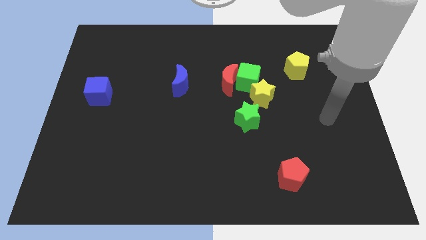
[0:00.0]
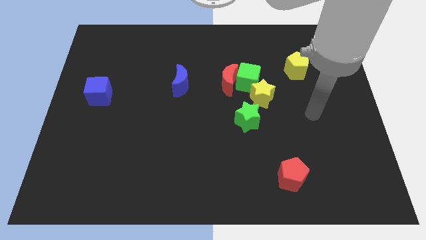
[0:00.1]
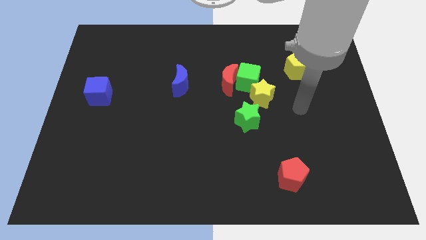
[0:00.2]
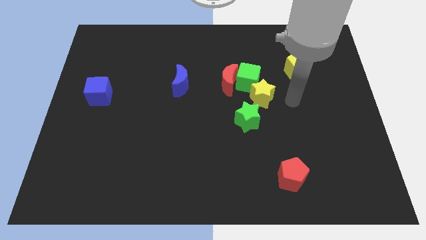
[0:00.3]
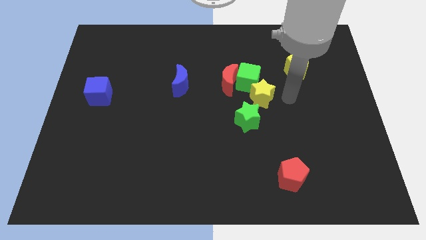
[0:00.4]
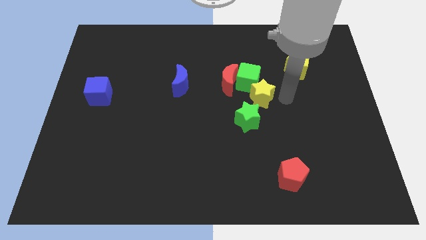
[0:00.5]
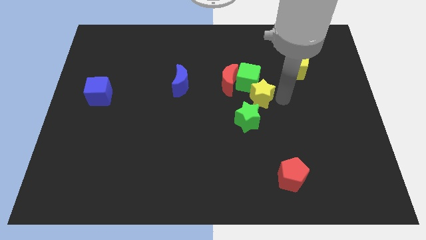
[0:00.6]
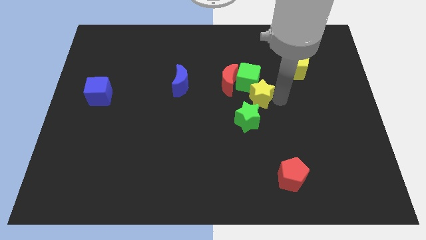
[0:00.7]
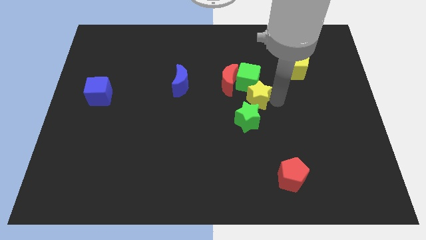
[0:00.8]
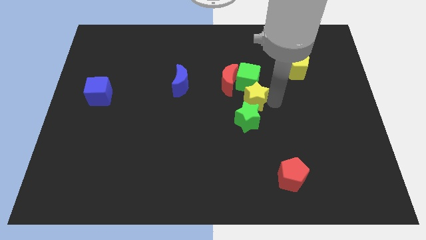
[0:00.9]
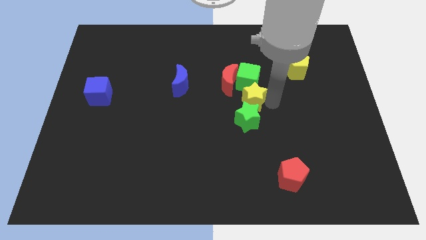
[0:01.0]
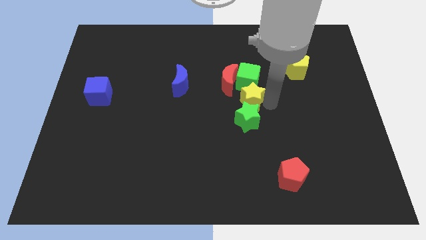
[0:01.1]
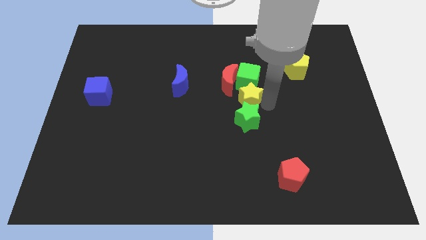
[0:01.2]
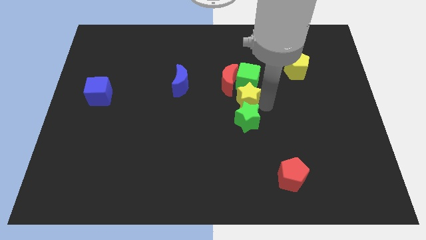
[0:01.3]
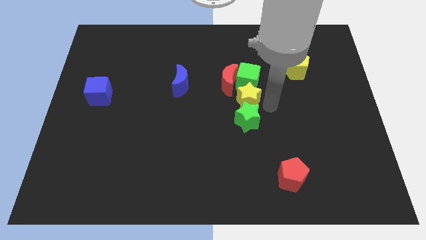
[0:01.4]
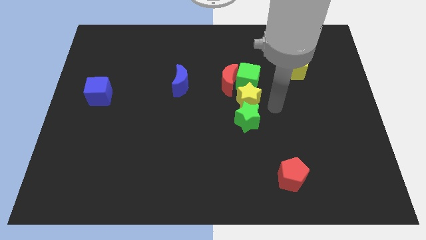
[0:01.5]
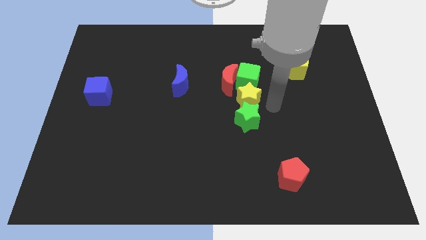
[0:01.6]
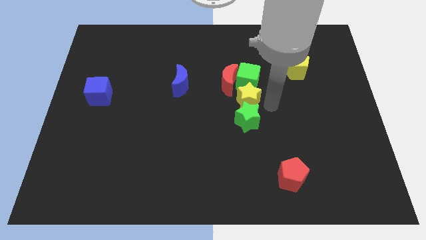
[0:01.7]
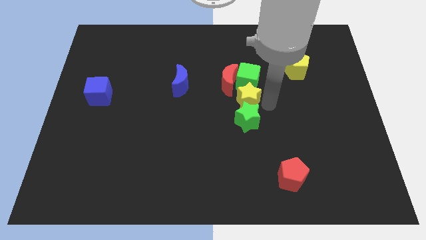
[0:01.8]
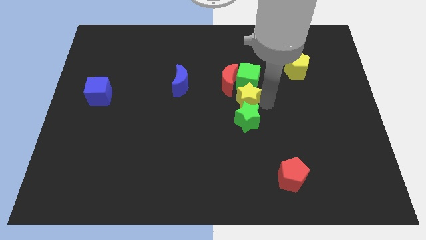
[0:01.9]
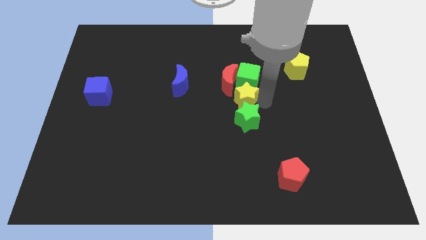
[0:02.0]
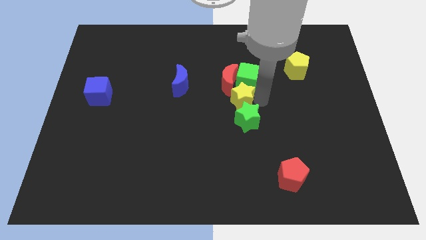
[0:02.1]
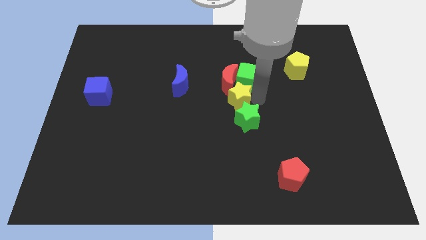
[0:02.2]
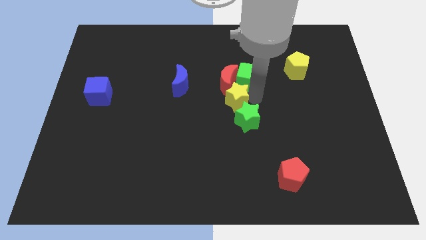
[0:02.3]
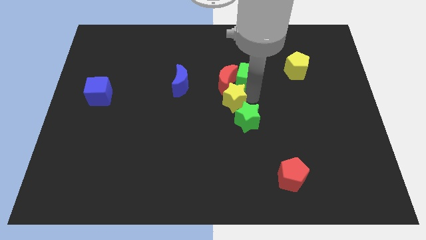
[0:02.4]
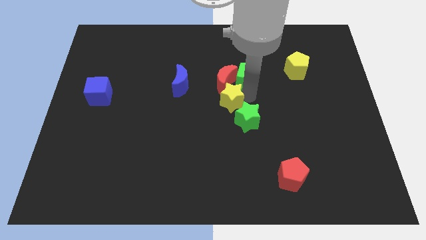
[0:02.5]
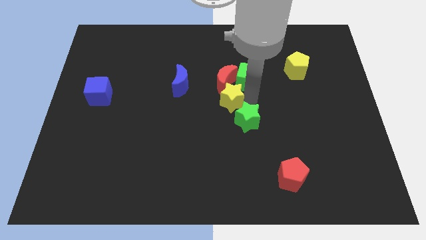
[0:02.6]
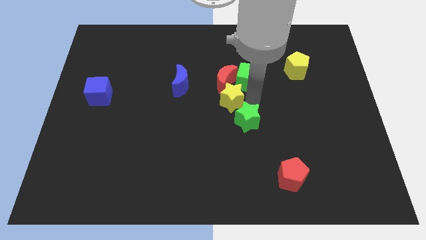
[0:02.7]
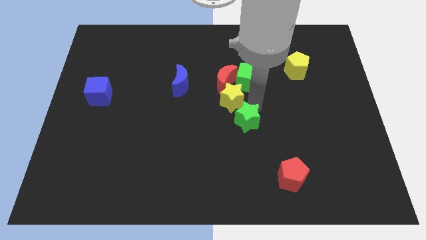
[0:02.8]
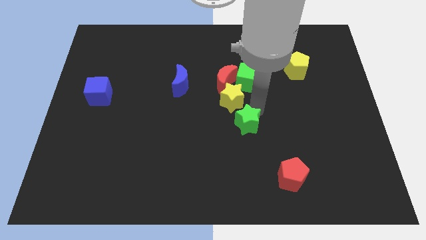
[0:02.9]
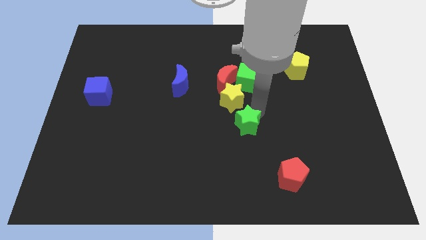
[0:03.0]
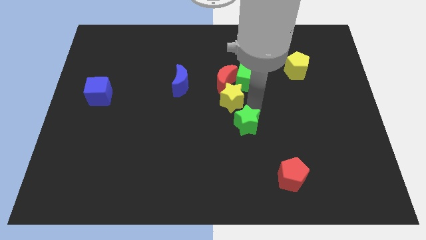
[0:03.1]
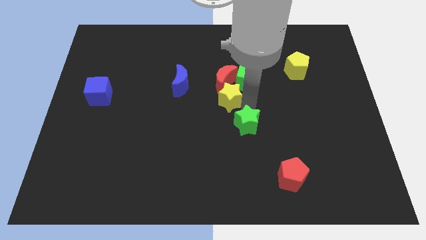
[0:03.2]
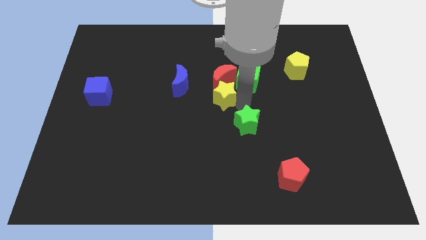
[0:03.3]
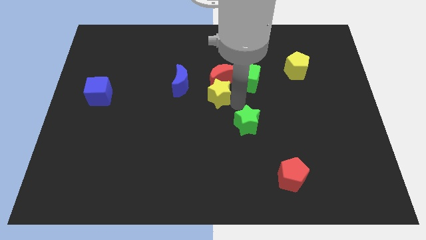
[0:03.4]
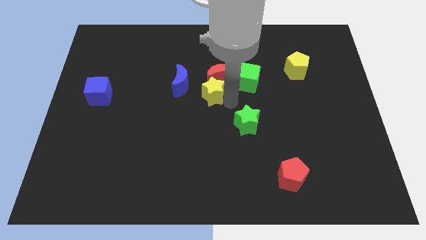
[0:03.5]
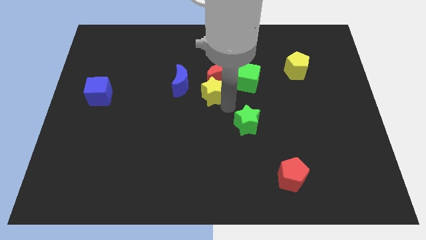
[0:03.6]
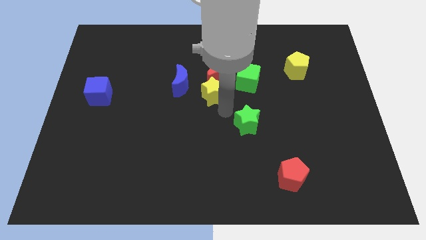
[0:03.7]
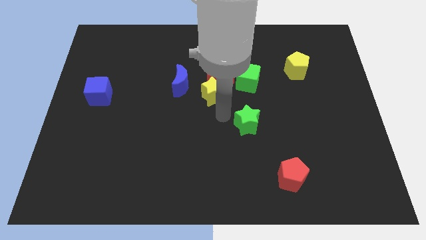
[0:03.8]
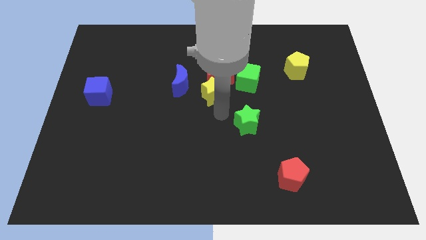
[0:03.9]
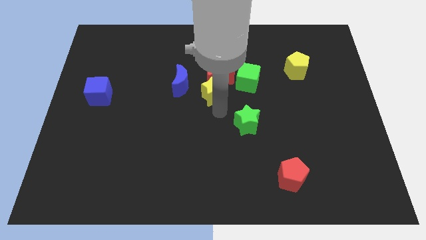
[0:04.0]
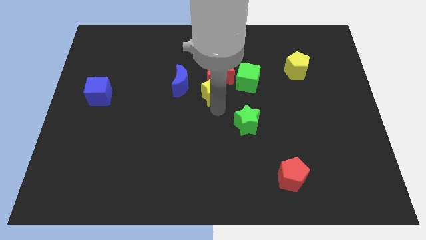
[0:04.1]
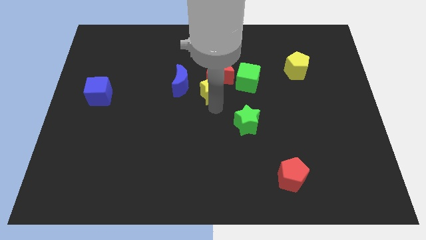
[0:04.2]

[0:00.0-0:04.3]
slide the yellow star diagonally upwards and left a little bit

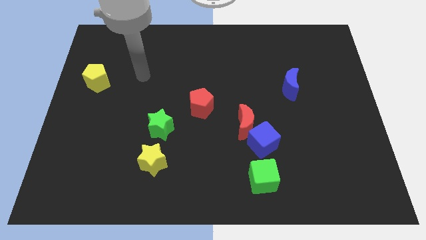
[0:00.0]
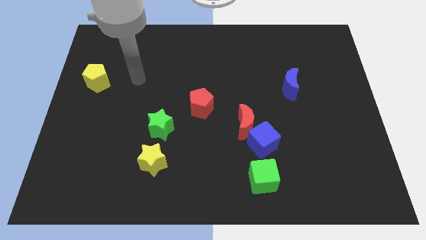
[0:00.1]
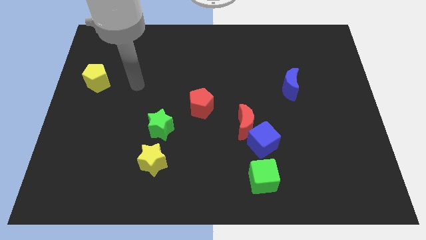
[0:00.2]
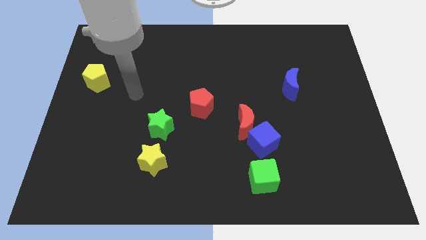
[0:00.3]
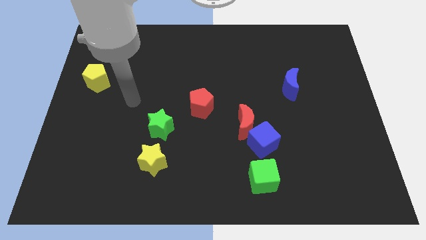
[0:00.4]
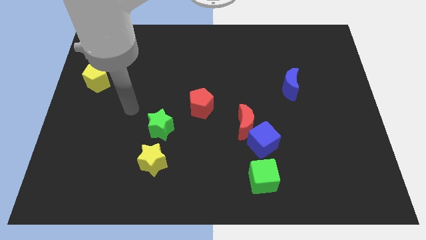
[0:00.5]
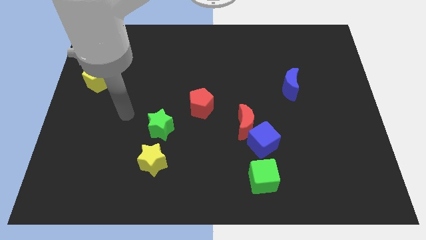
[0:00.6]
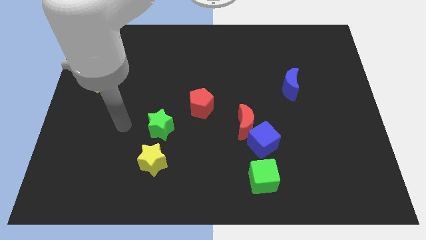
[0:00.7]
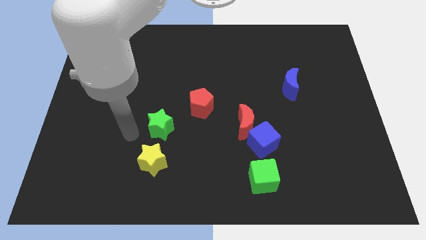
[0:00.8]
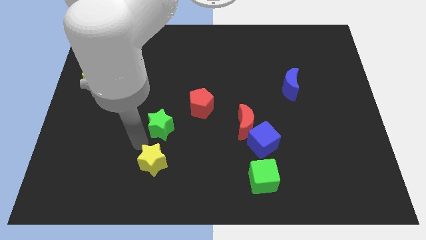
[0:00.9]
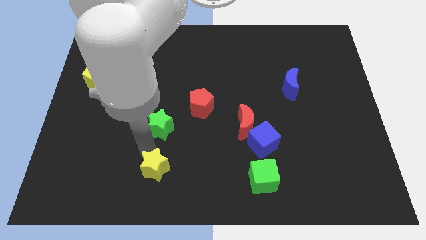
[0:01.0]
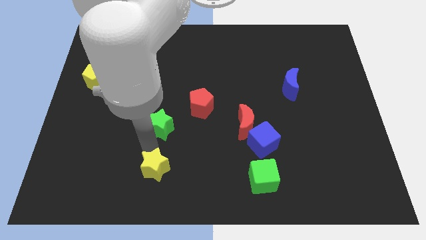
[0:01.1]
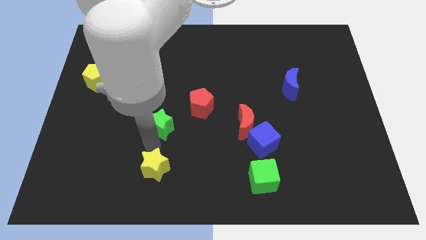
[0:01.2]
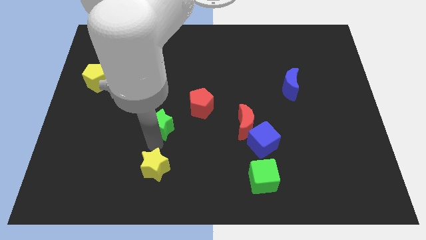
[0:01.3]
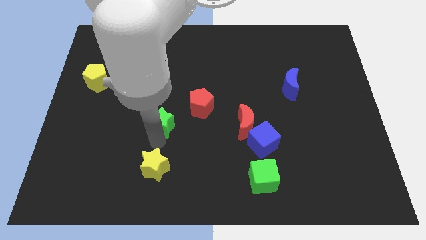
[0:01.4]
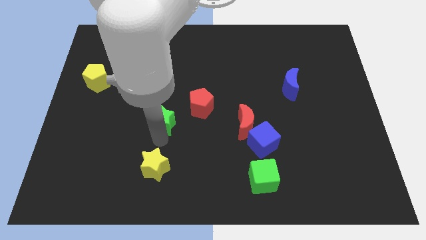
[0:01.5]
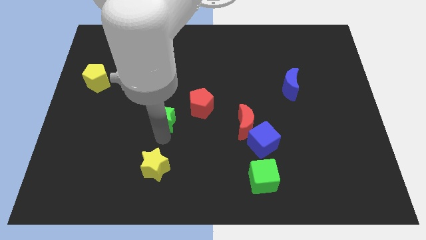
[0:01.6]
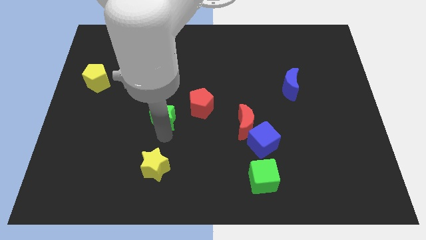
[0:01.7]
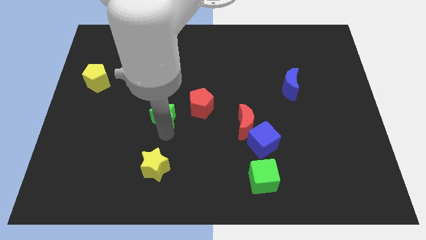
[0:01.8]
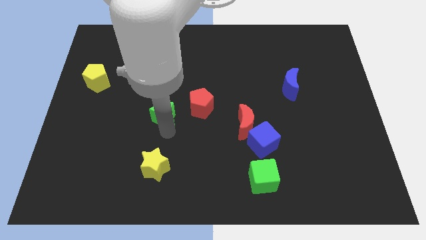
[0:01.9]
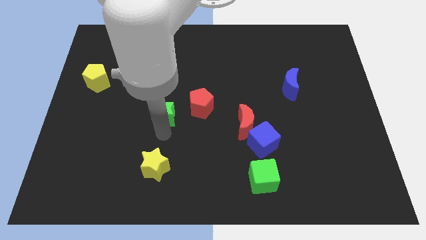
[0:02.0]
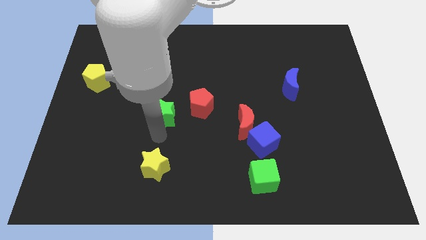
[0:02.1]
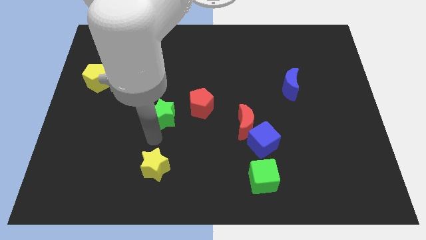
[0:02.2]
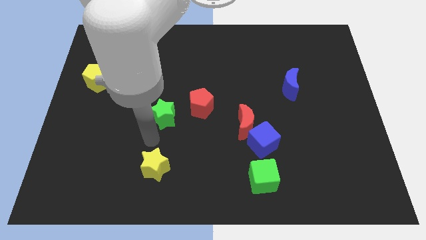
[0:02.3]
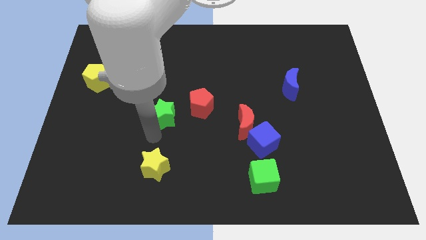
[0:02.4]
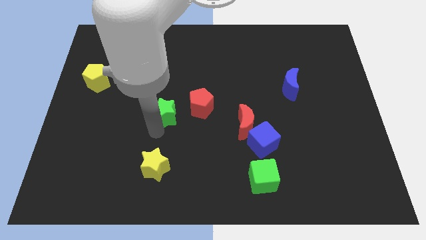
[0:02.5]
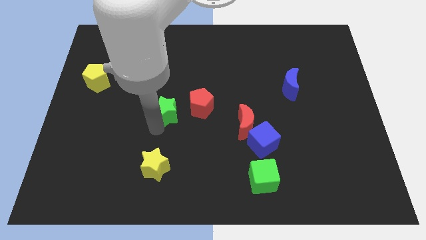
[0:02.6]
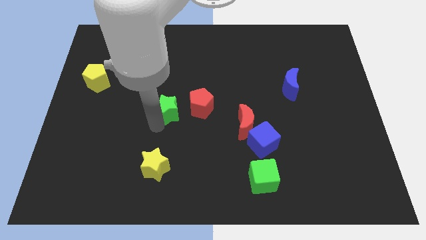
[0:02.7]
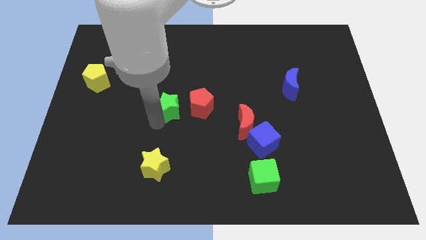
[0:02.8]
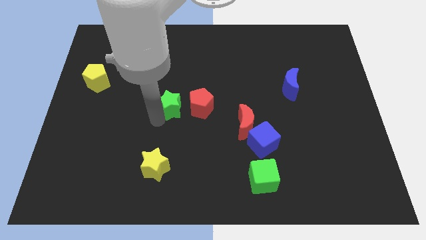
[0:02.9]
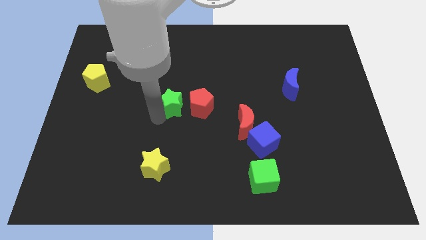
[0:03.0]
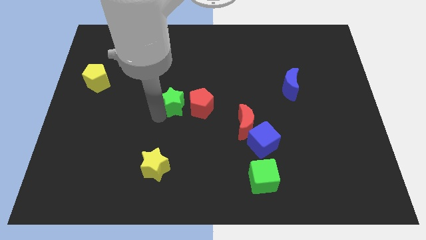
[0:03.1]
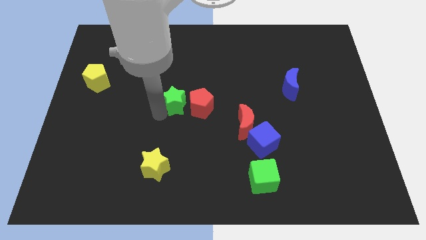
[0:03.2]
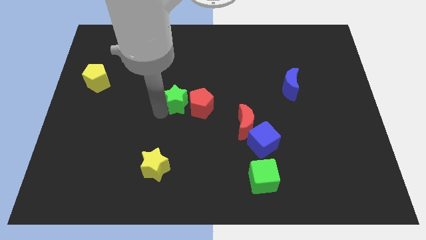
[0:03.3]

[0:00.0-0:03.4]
move the green star up and then to the right a bit

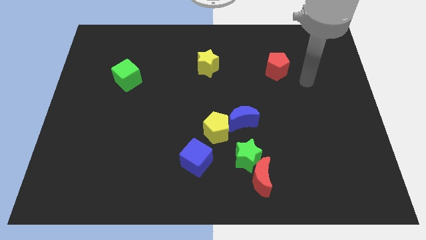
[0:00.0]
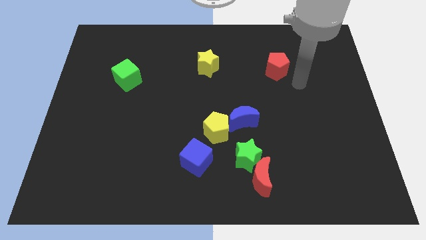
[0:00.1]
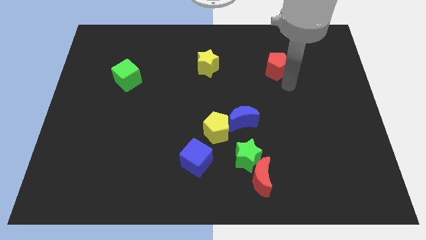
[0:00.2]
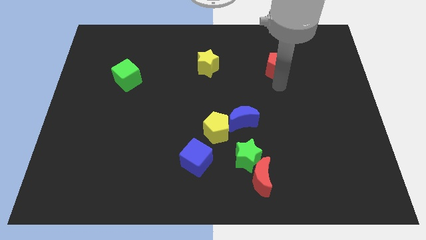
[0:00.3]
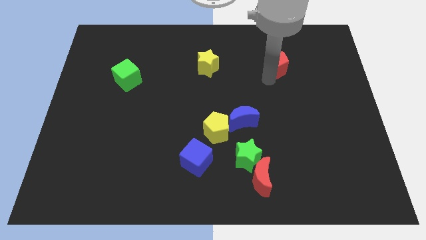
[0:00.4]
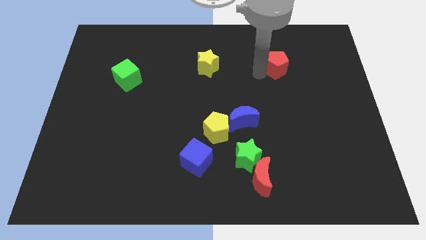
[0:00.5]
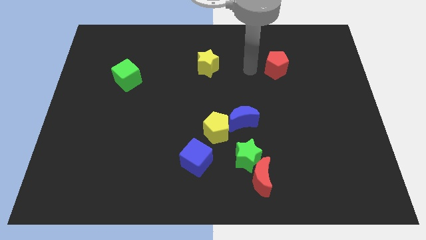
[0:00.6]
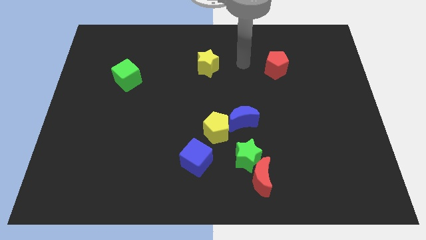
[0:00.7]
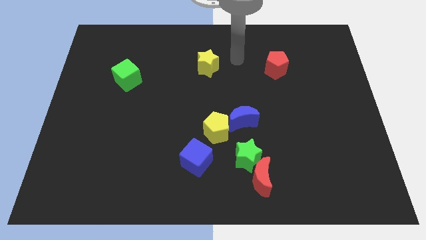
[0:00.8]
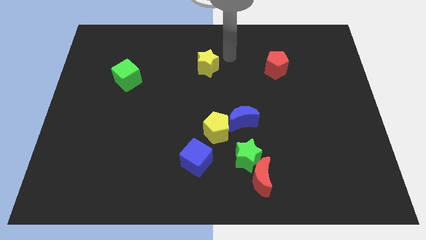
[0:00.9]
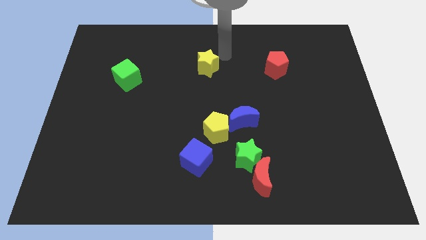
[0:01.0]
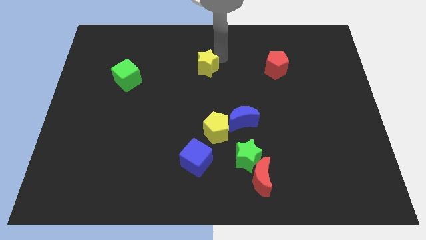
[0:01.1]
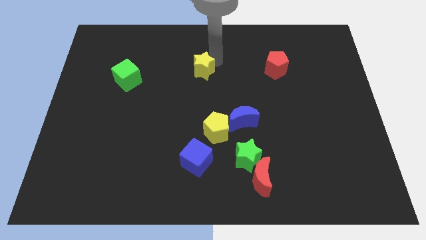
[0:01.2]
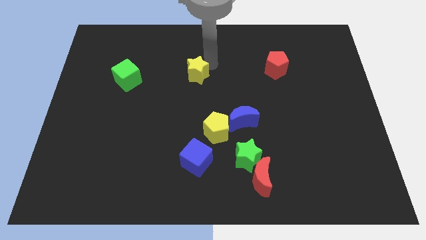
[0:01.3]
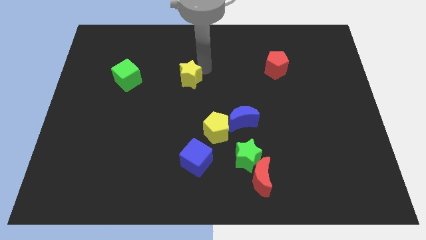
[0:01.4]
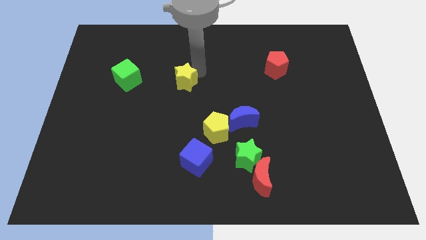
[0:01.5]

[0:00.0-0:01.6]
slightly slide the yellow star downwards and to the left
